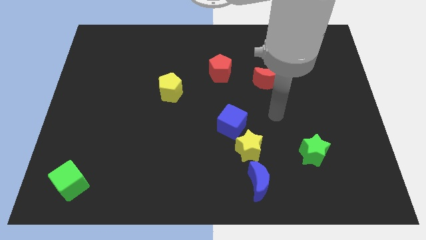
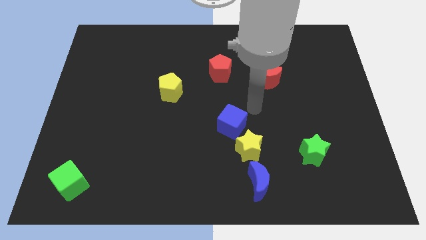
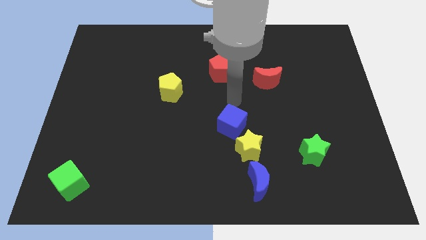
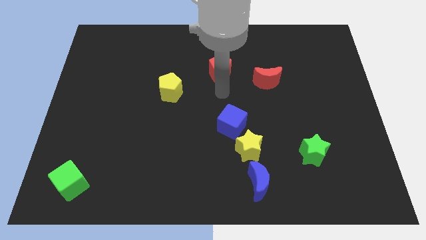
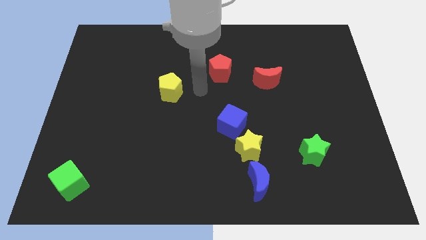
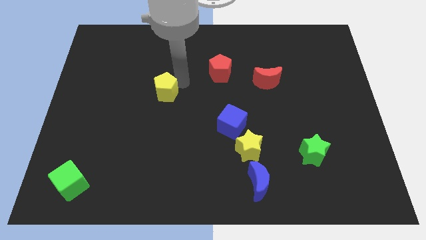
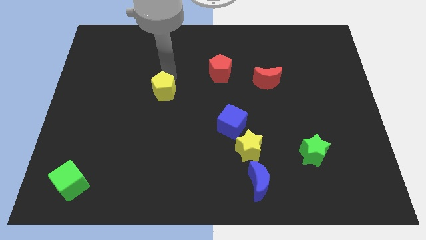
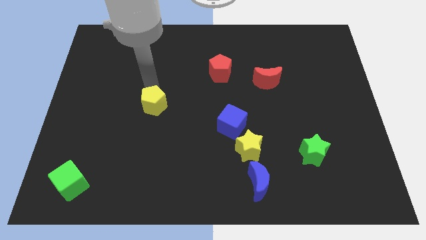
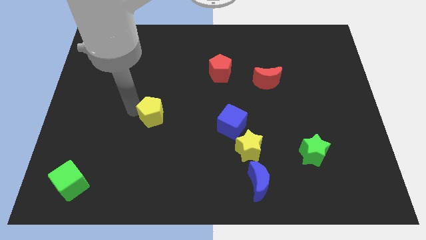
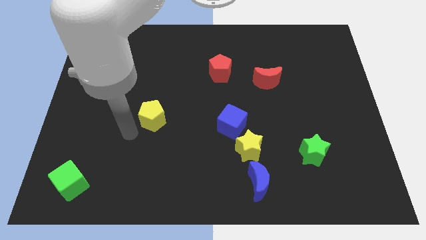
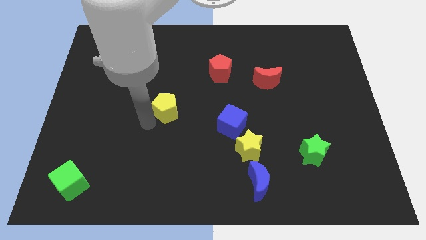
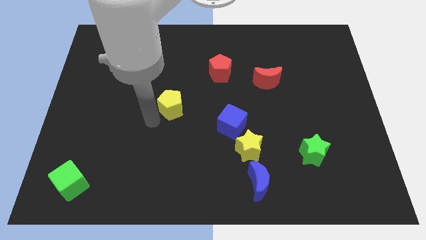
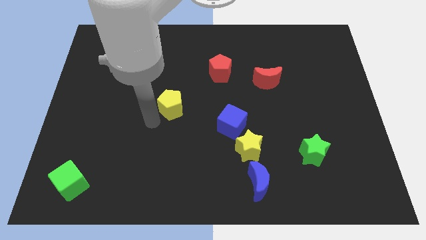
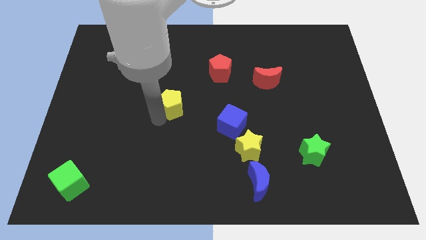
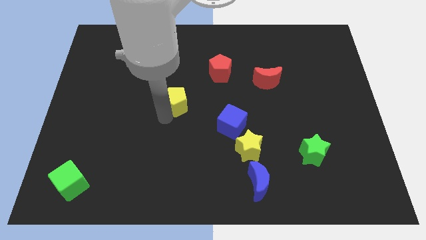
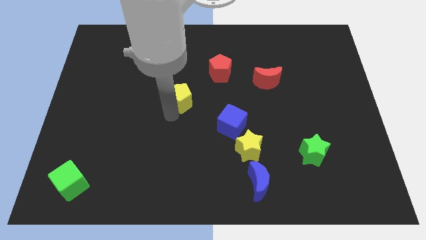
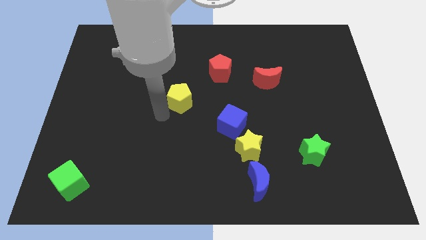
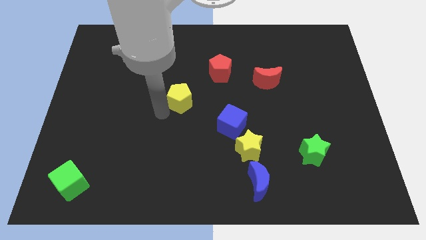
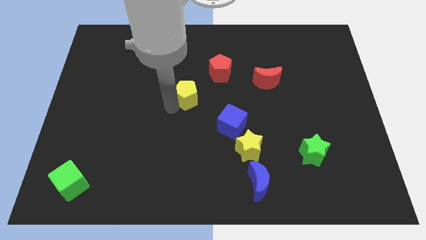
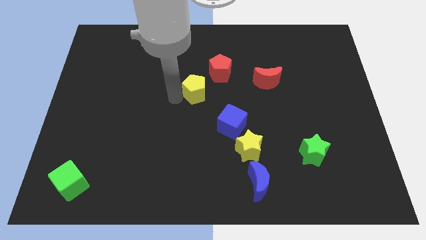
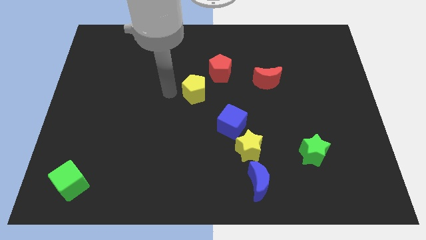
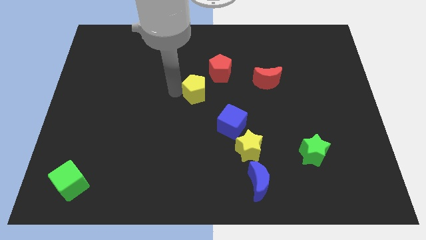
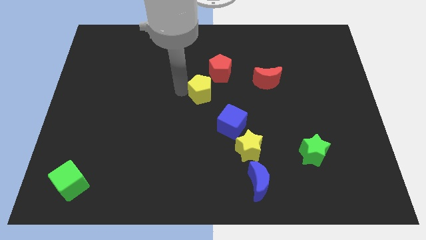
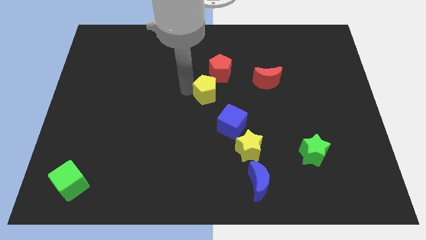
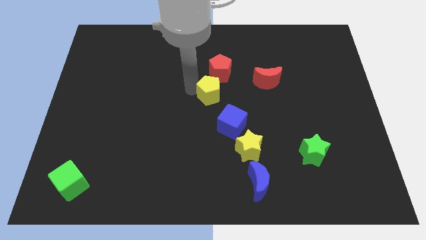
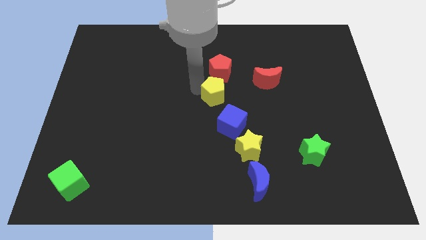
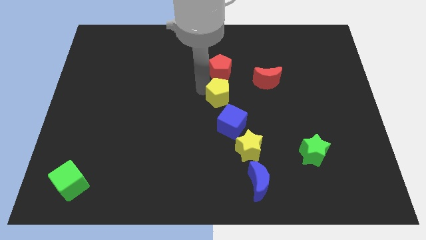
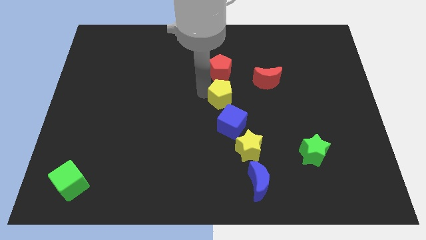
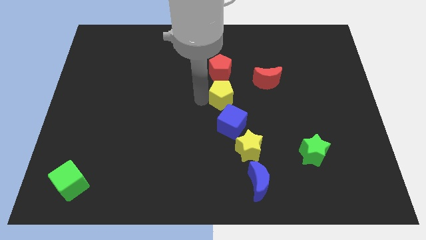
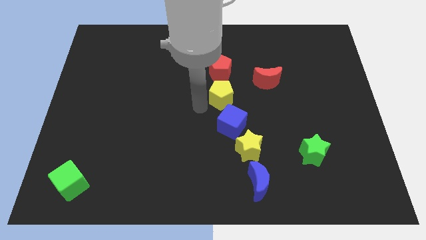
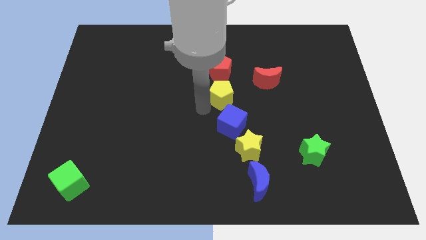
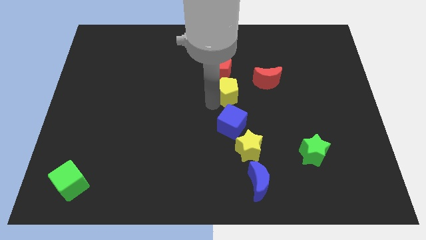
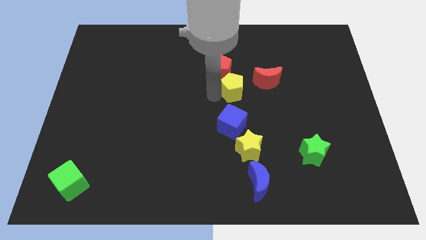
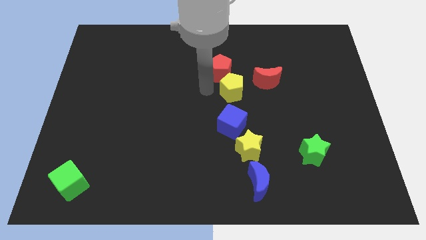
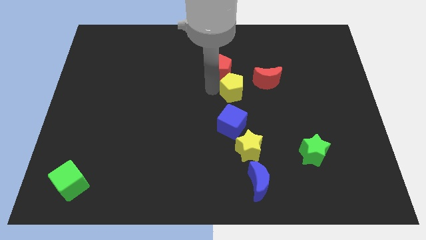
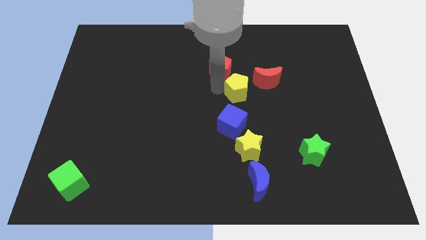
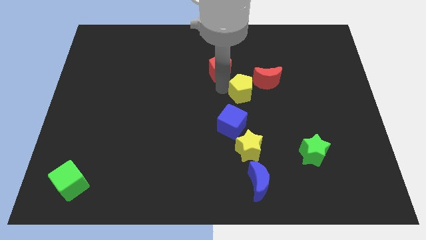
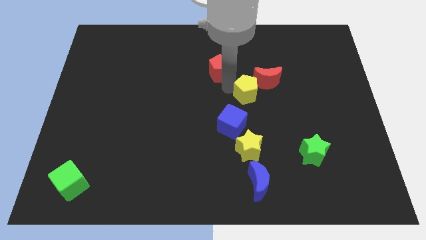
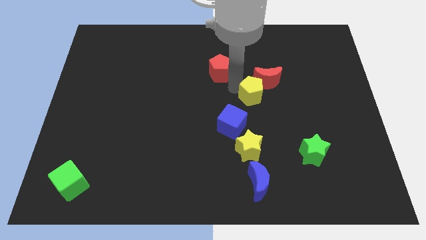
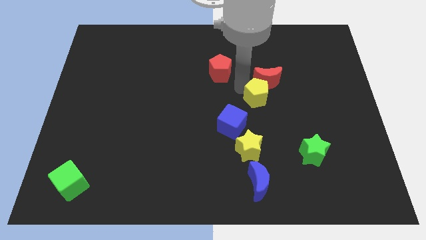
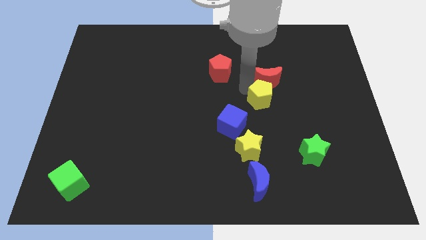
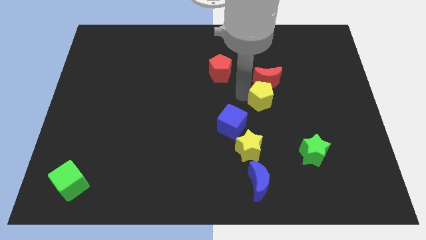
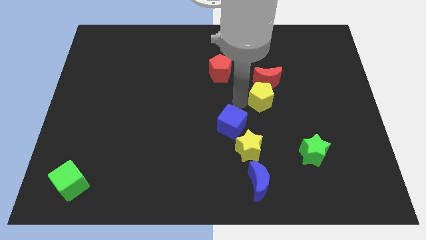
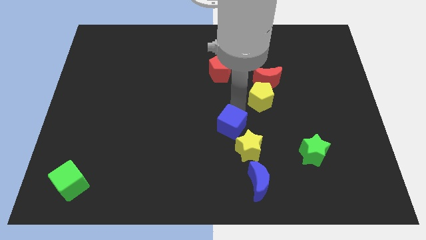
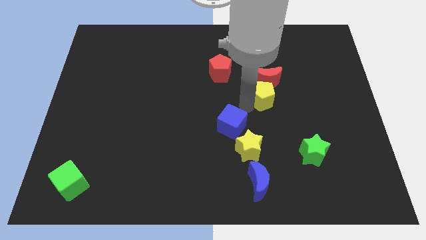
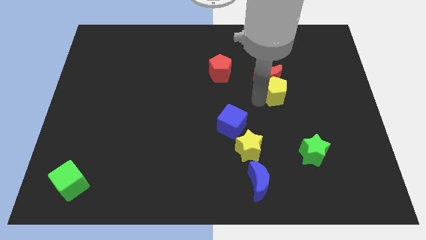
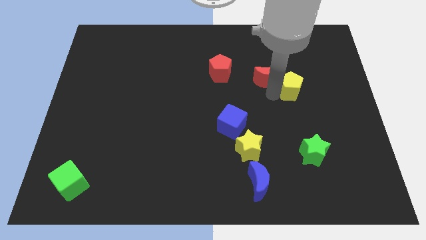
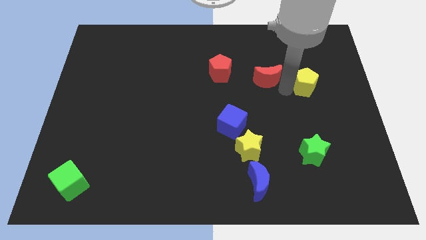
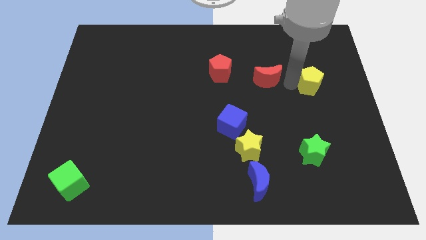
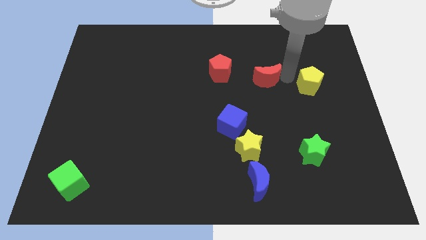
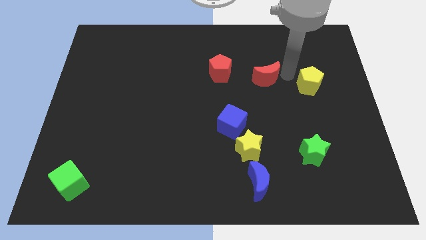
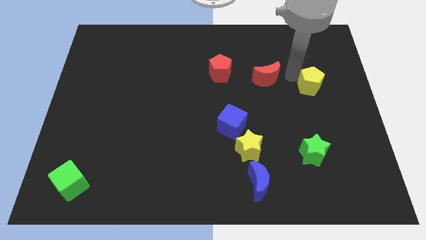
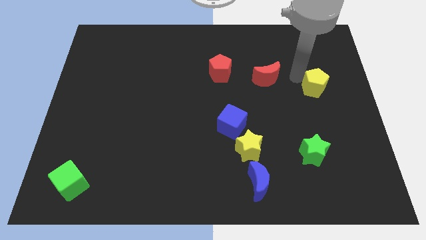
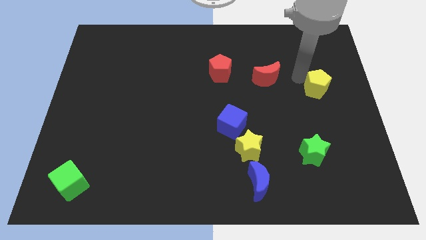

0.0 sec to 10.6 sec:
push the yellow pentagon to the right side

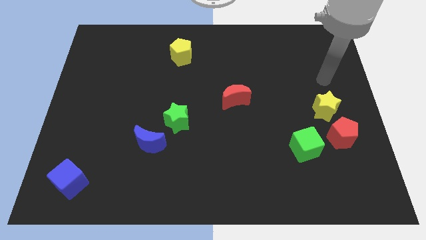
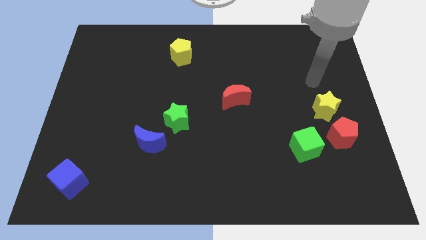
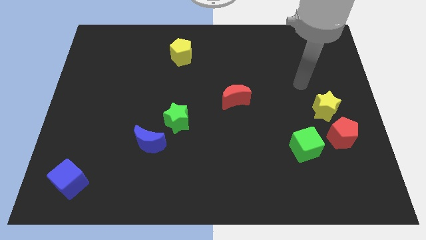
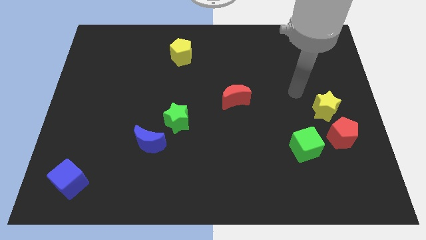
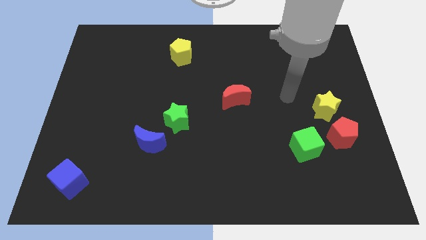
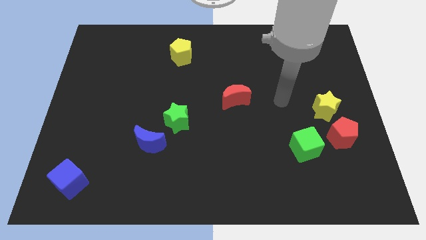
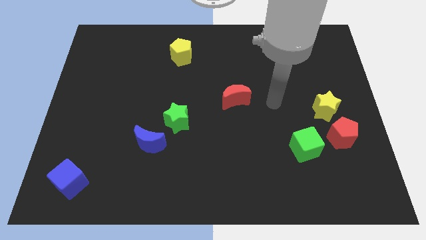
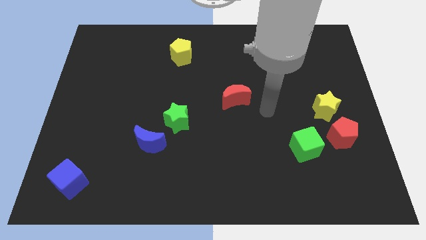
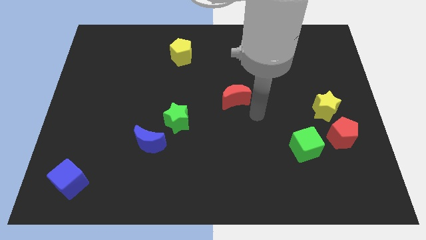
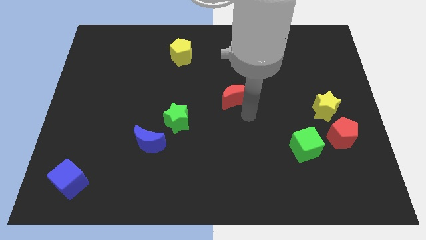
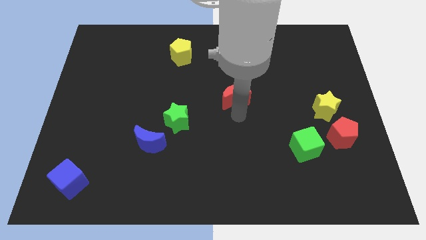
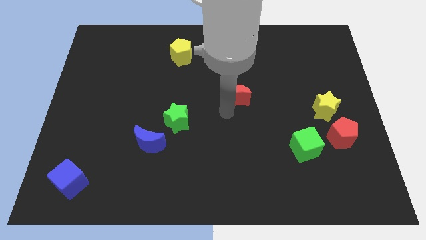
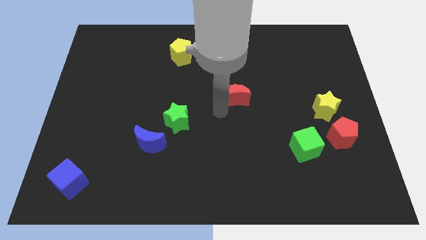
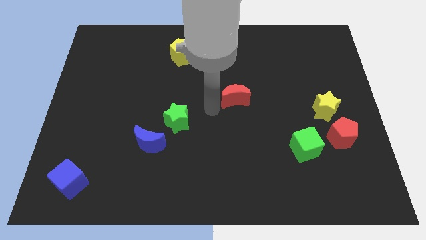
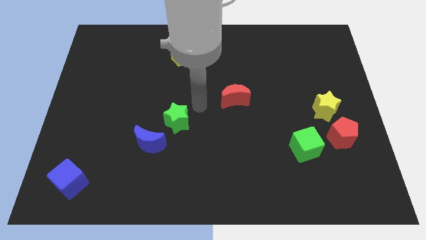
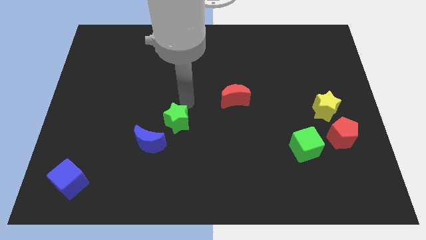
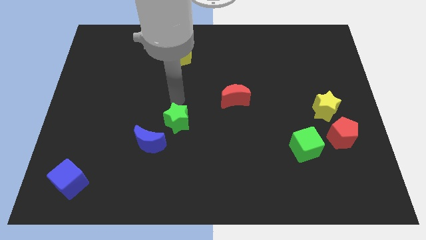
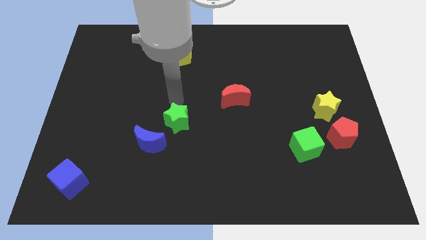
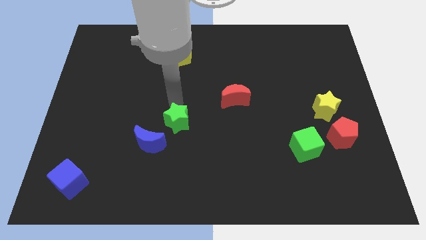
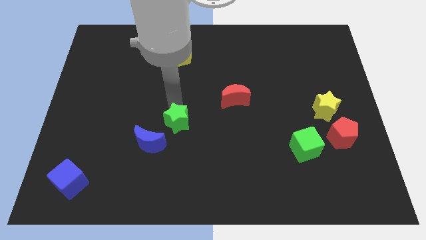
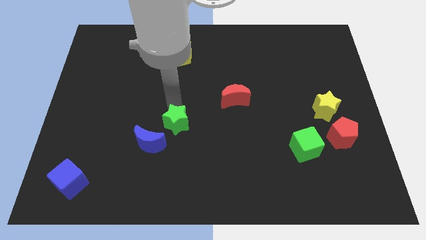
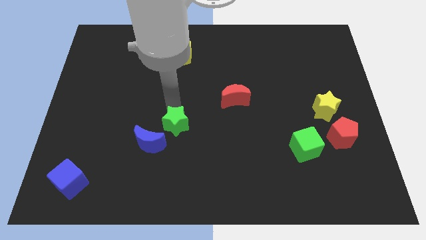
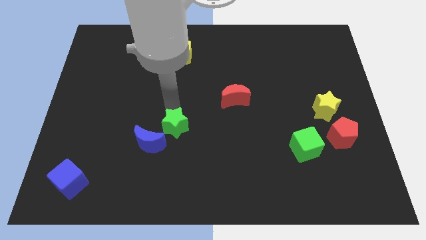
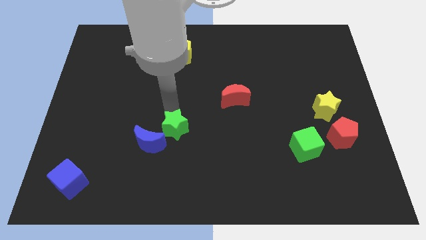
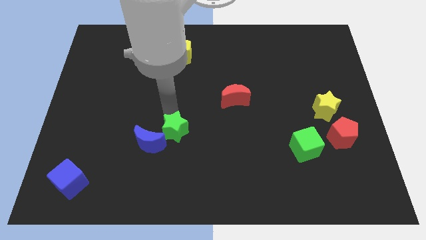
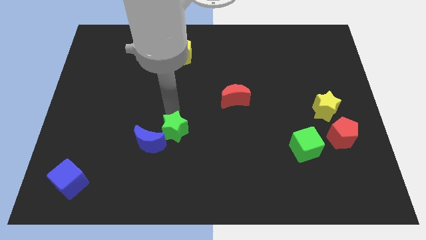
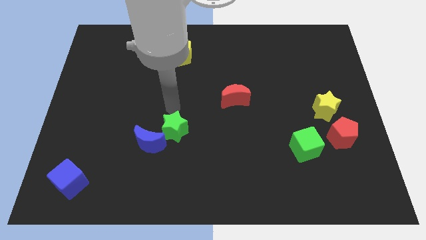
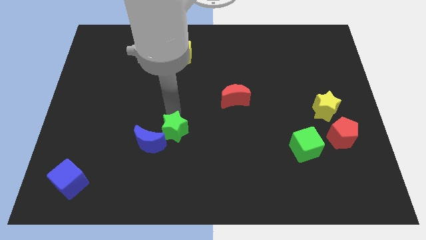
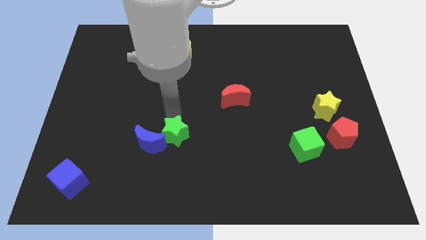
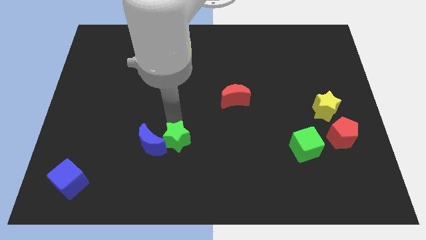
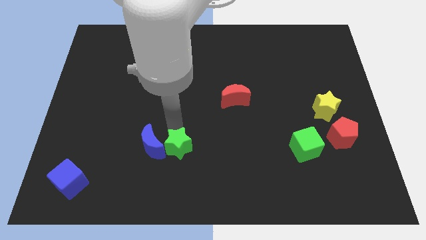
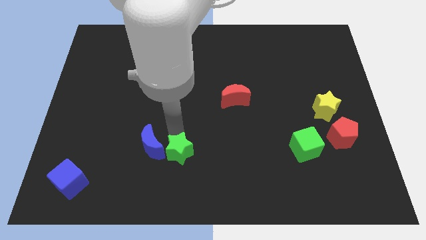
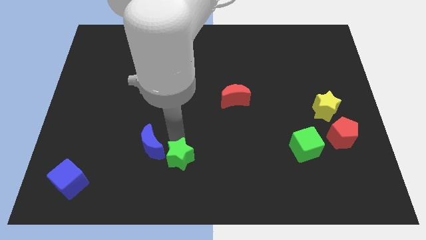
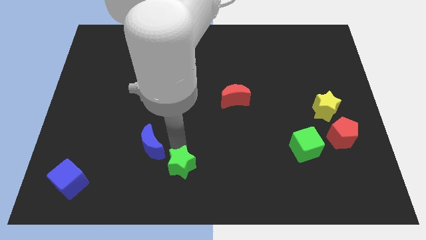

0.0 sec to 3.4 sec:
put the green star to the bottom
